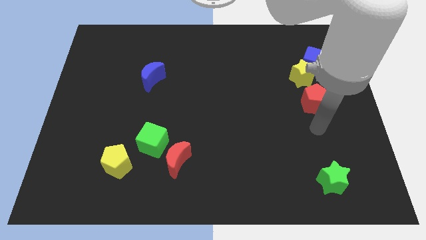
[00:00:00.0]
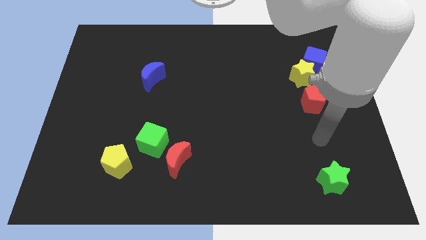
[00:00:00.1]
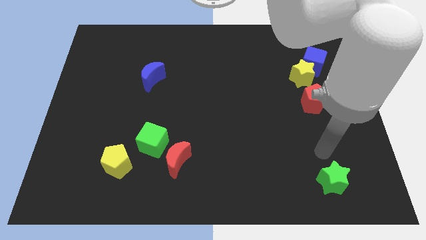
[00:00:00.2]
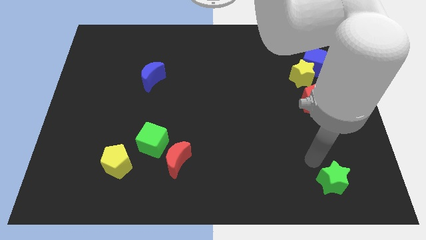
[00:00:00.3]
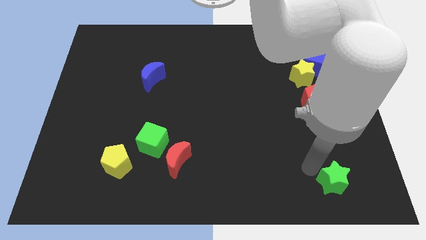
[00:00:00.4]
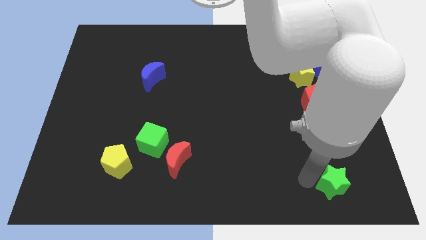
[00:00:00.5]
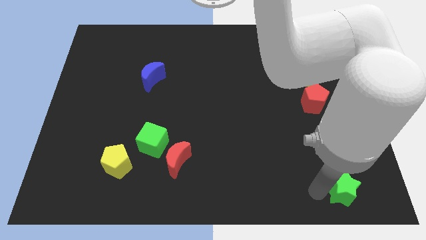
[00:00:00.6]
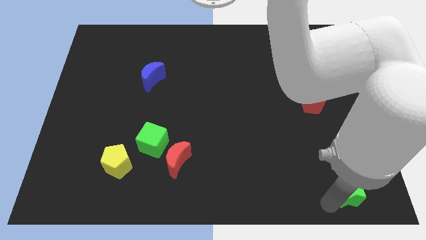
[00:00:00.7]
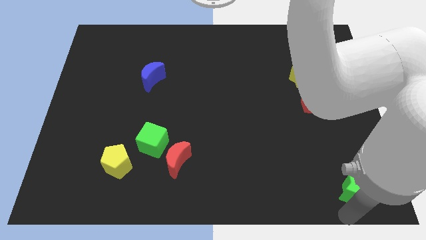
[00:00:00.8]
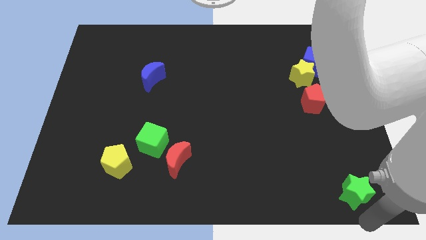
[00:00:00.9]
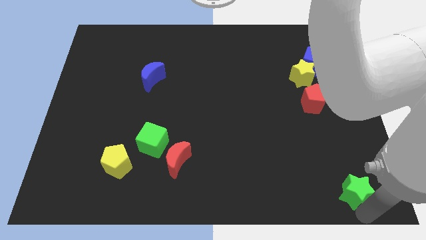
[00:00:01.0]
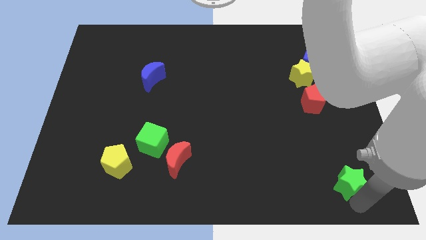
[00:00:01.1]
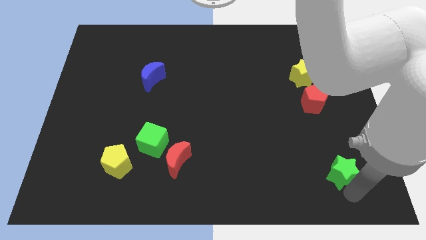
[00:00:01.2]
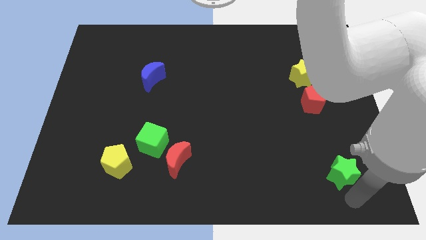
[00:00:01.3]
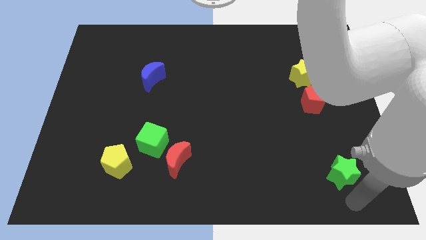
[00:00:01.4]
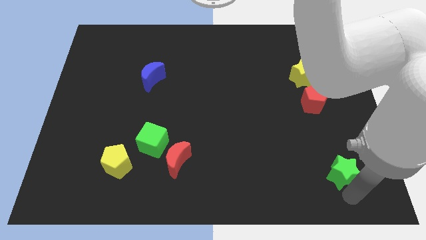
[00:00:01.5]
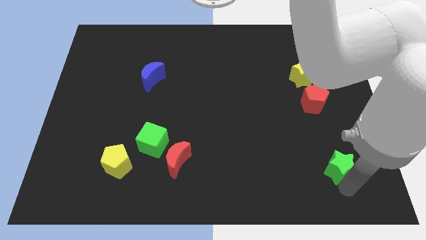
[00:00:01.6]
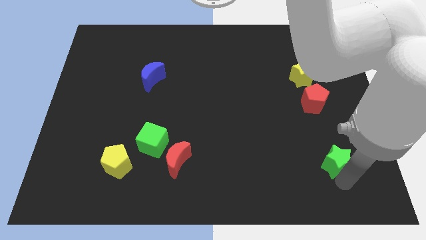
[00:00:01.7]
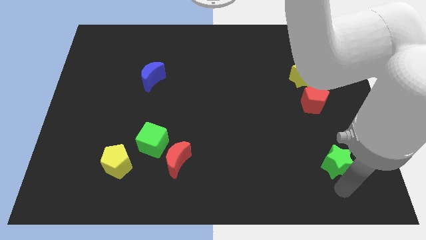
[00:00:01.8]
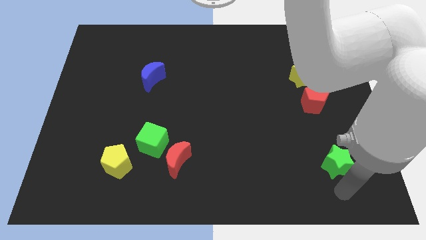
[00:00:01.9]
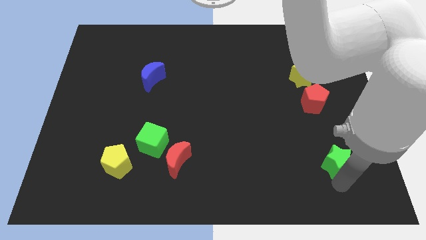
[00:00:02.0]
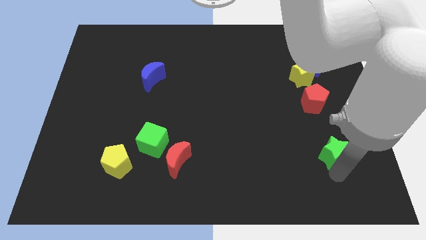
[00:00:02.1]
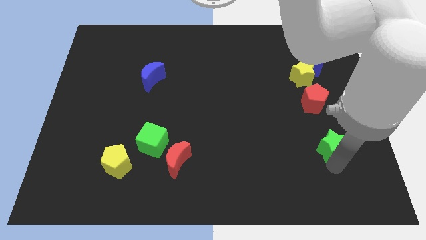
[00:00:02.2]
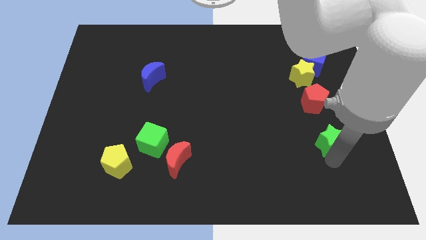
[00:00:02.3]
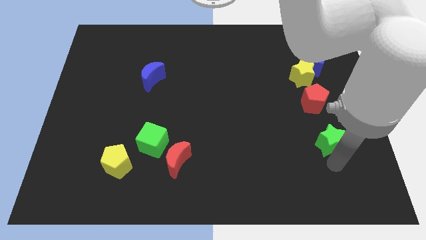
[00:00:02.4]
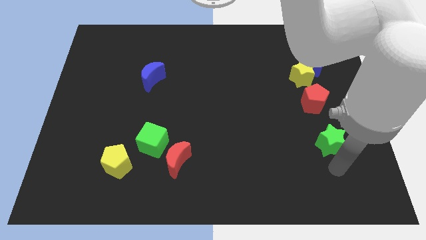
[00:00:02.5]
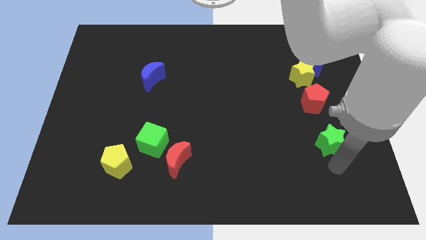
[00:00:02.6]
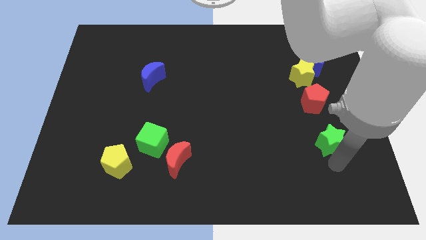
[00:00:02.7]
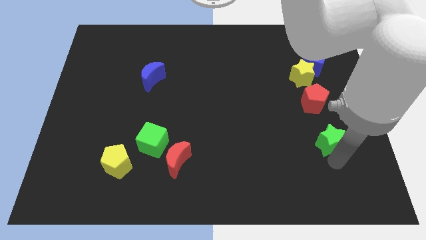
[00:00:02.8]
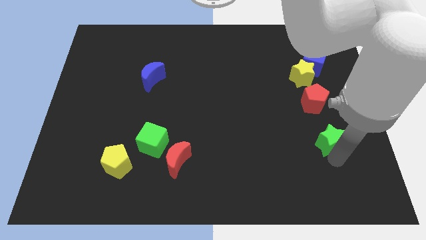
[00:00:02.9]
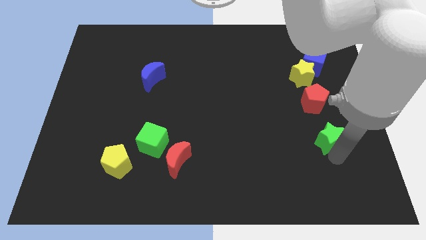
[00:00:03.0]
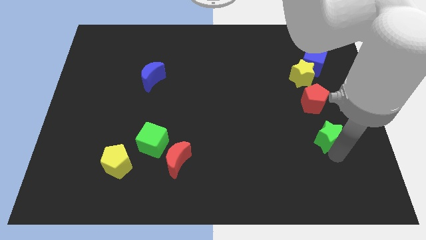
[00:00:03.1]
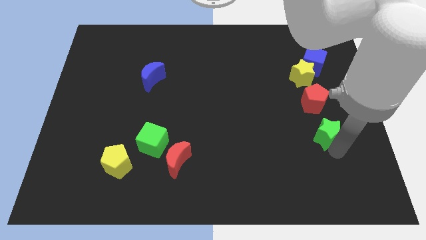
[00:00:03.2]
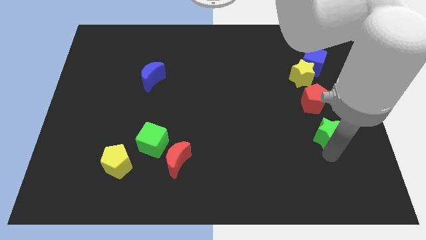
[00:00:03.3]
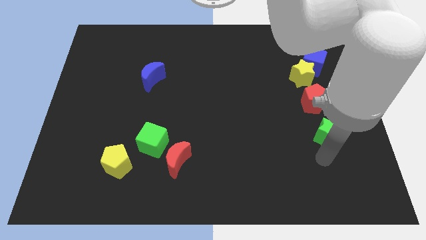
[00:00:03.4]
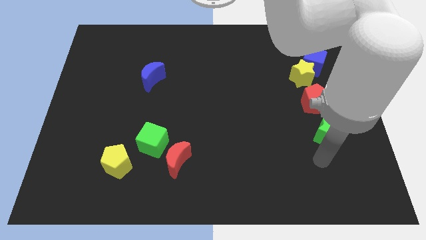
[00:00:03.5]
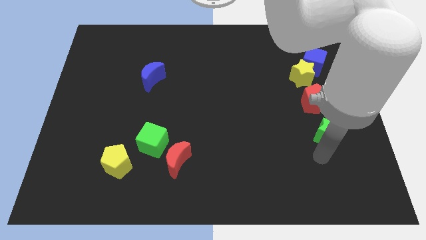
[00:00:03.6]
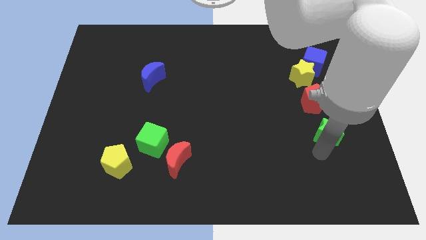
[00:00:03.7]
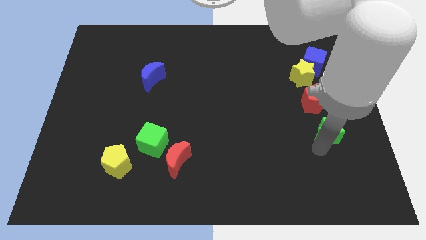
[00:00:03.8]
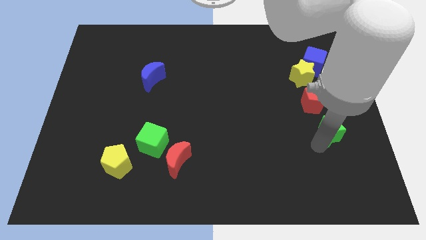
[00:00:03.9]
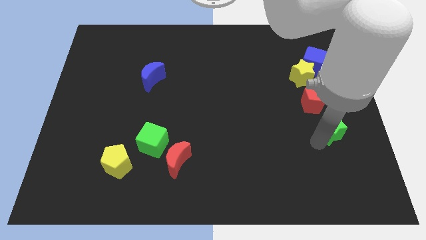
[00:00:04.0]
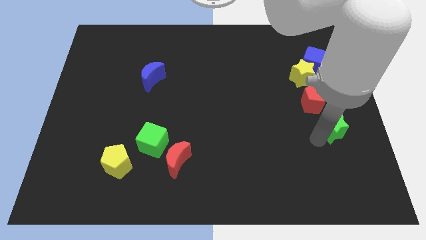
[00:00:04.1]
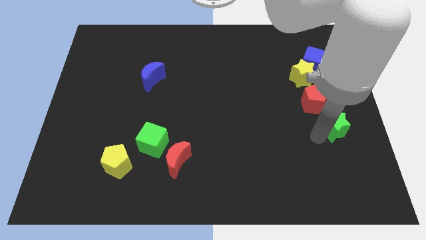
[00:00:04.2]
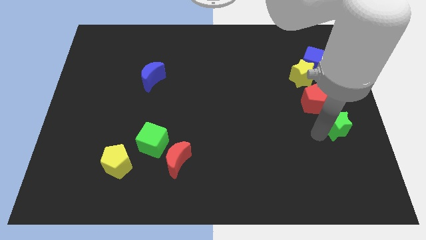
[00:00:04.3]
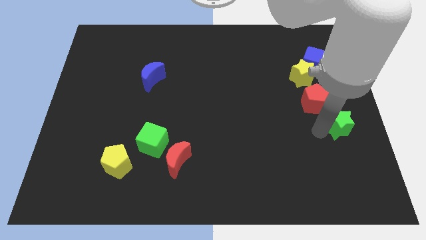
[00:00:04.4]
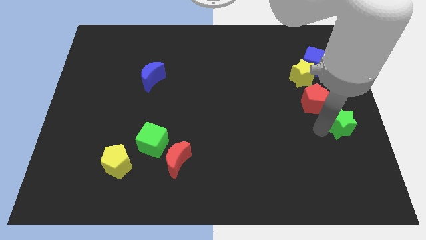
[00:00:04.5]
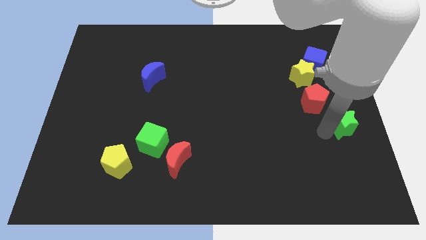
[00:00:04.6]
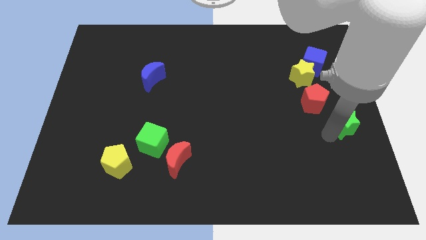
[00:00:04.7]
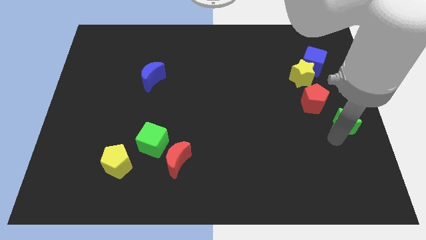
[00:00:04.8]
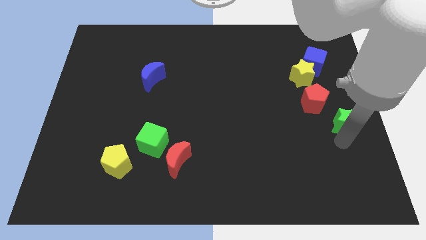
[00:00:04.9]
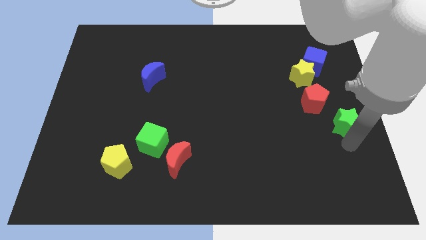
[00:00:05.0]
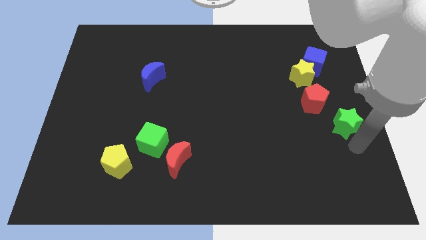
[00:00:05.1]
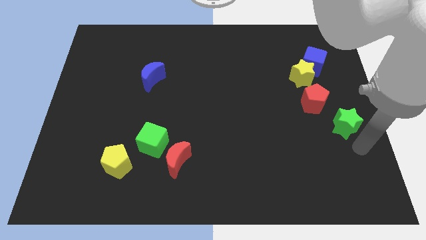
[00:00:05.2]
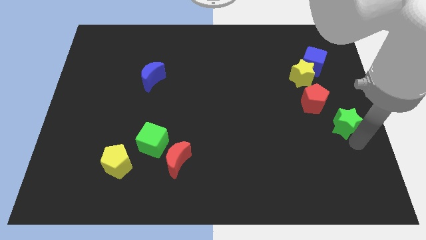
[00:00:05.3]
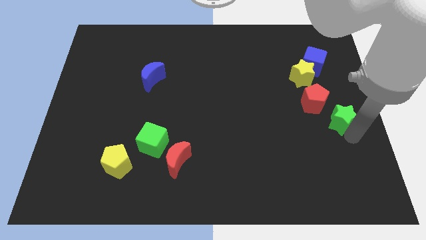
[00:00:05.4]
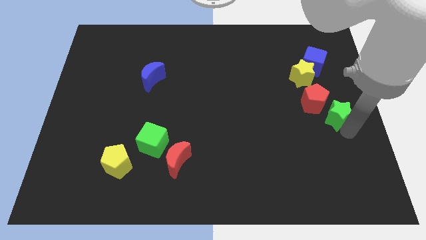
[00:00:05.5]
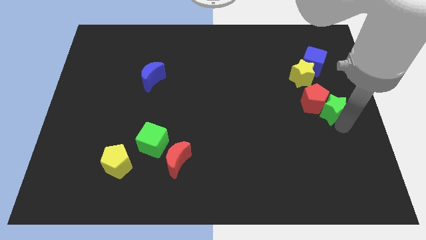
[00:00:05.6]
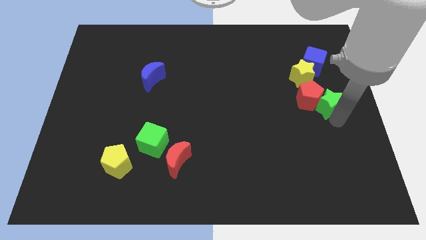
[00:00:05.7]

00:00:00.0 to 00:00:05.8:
slide the green star to the bottom right of the yellow star

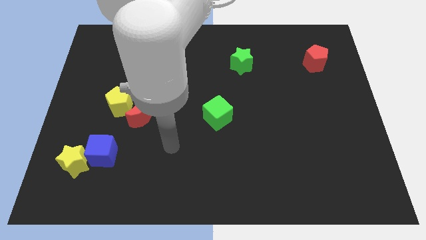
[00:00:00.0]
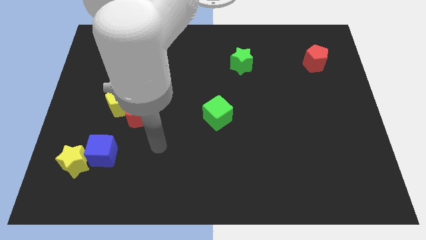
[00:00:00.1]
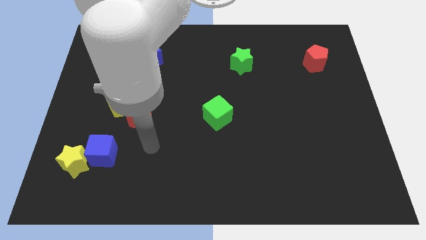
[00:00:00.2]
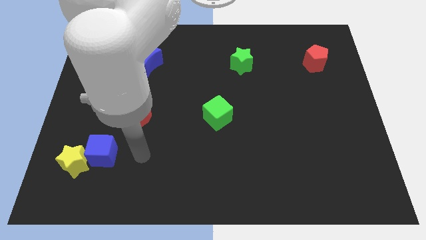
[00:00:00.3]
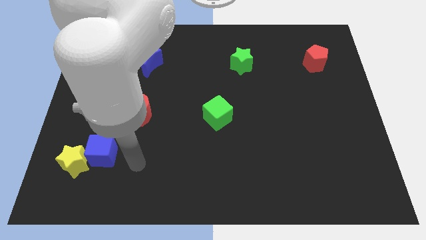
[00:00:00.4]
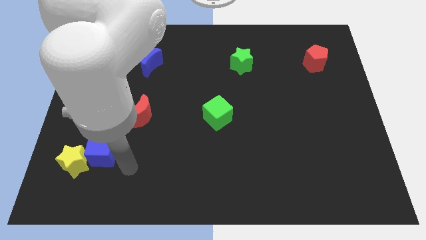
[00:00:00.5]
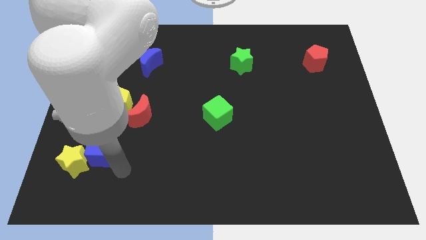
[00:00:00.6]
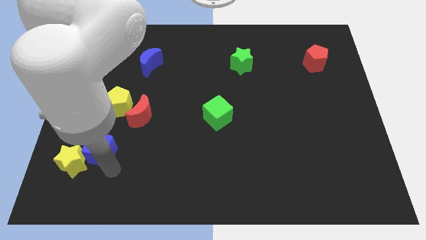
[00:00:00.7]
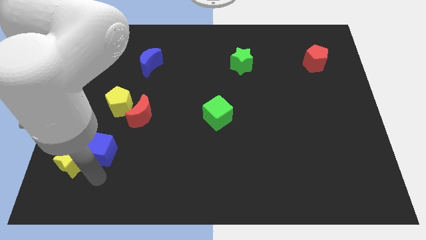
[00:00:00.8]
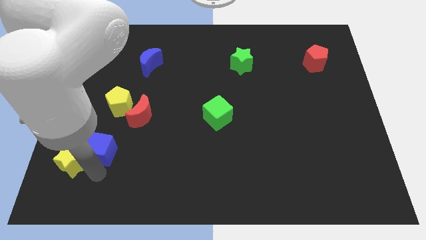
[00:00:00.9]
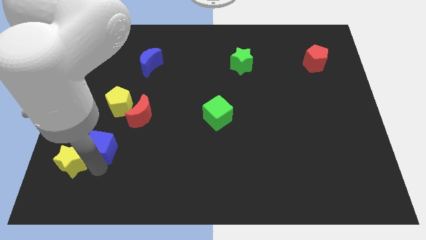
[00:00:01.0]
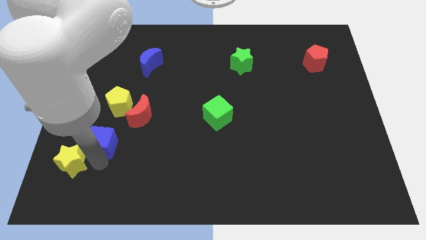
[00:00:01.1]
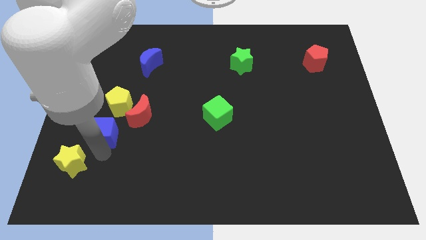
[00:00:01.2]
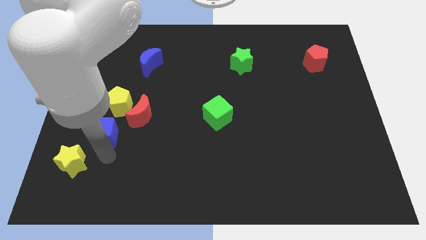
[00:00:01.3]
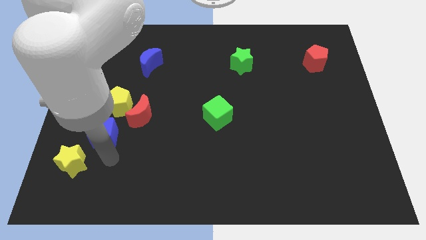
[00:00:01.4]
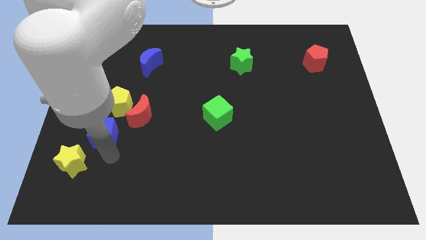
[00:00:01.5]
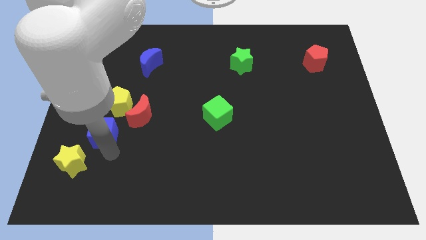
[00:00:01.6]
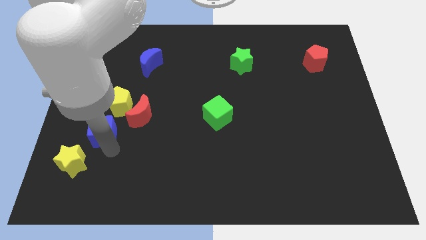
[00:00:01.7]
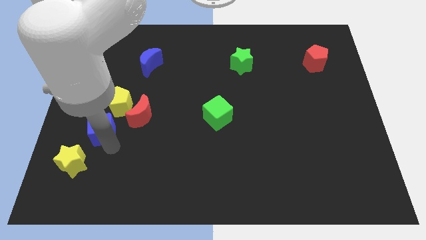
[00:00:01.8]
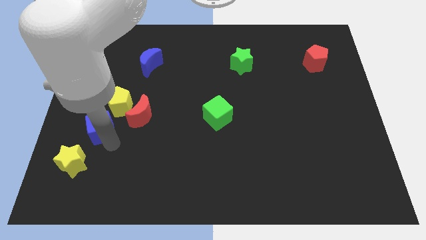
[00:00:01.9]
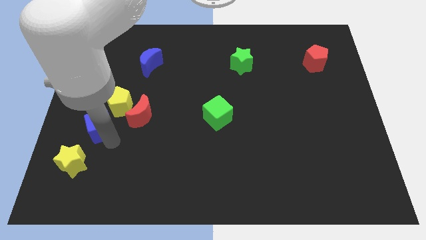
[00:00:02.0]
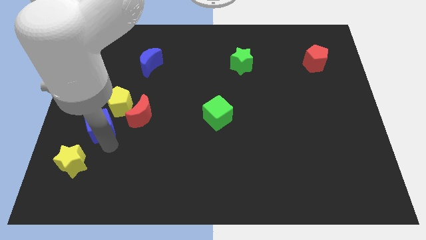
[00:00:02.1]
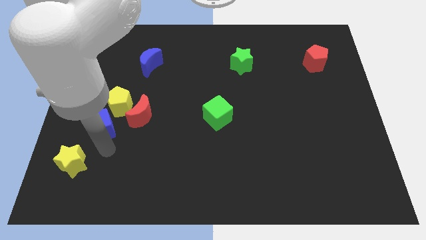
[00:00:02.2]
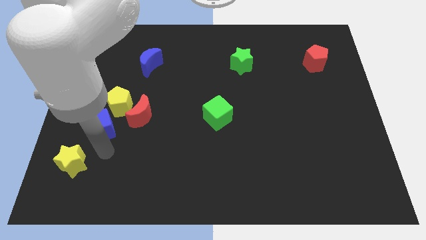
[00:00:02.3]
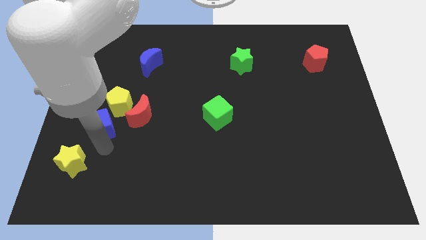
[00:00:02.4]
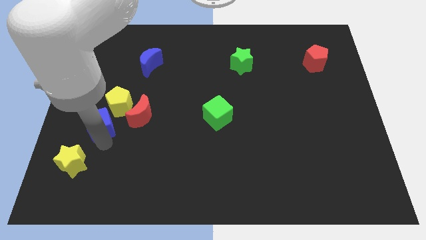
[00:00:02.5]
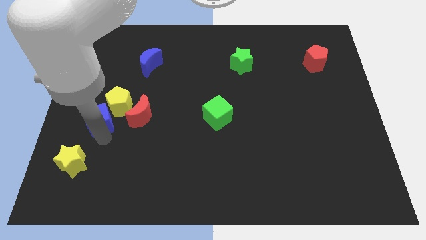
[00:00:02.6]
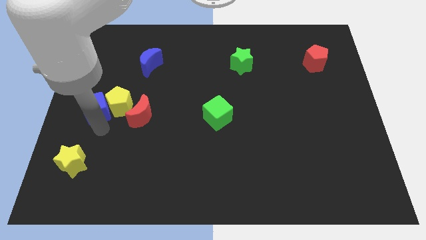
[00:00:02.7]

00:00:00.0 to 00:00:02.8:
slide the blue cube to the top left of the yellow pentagon
